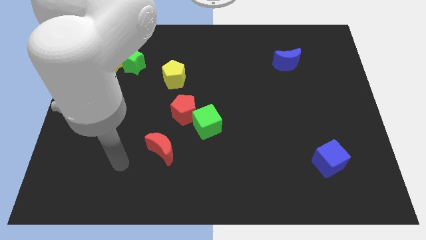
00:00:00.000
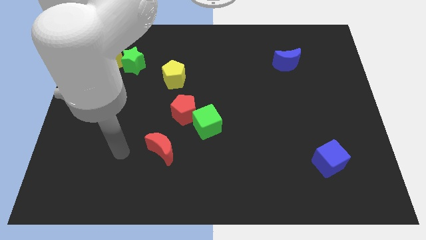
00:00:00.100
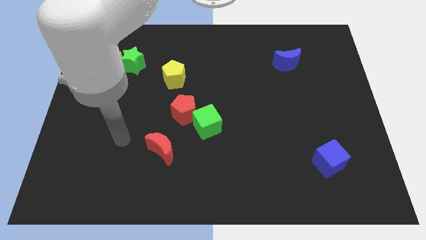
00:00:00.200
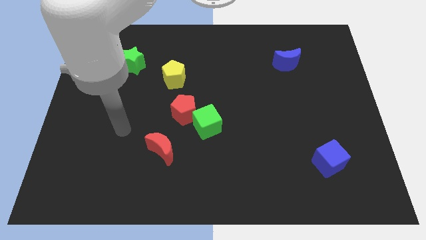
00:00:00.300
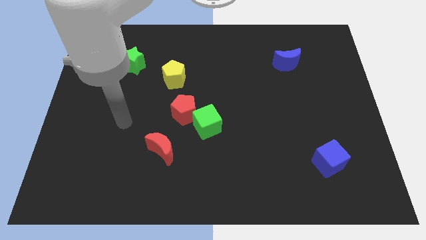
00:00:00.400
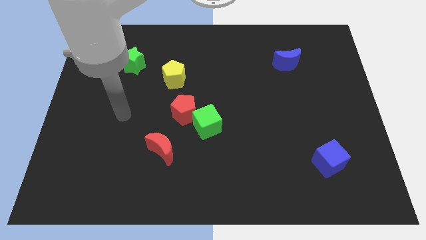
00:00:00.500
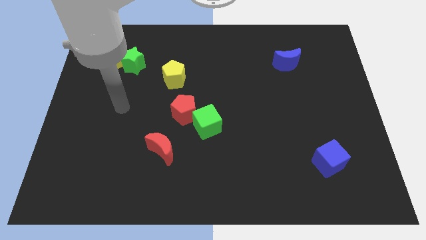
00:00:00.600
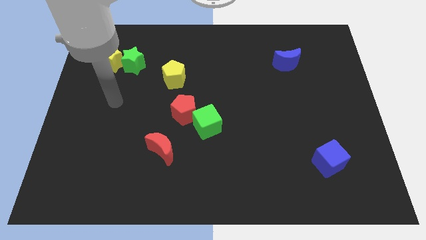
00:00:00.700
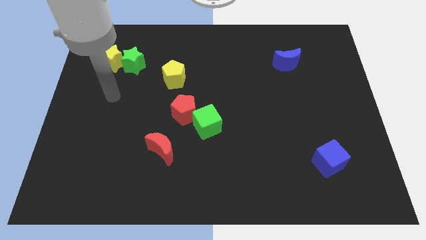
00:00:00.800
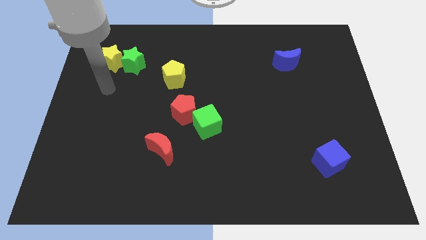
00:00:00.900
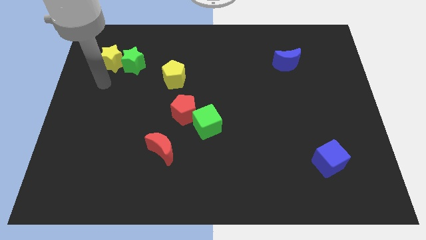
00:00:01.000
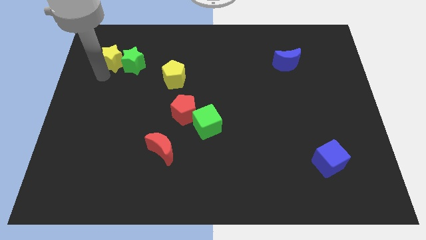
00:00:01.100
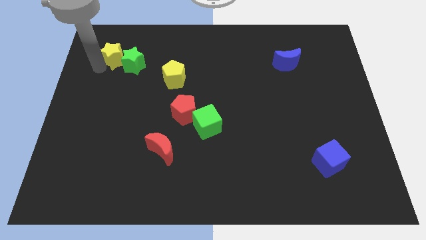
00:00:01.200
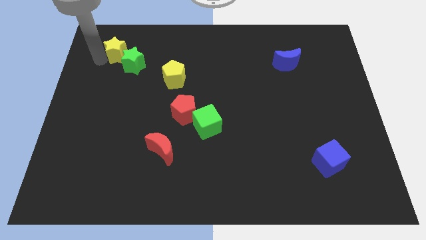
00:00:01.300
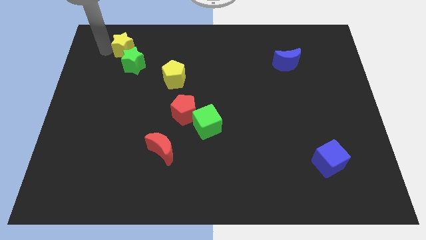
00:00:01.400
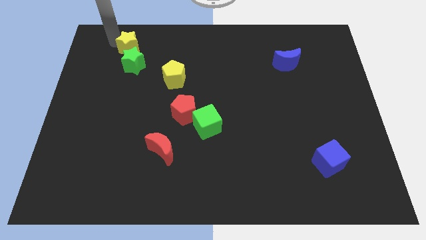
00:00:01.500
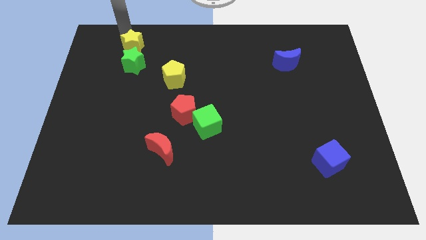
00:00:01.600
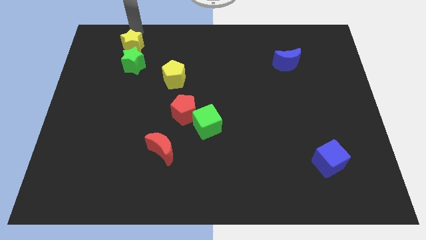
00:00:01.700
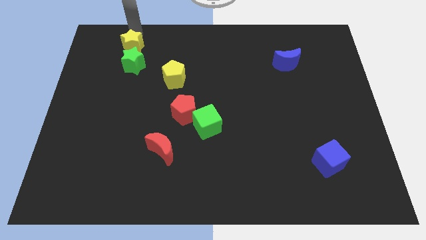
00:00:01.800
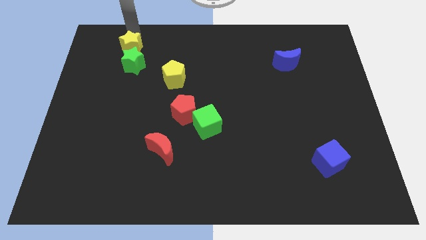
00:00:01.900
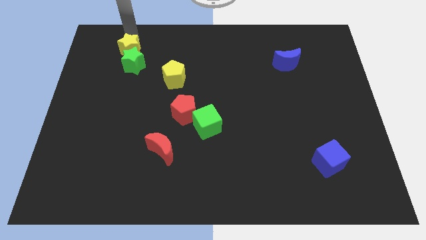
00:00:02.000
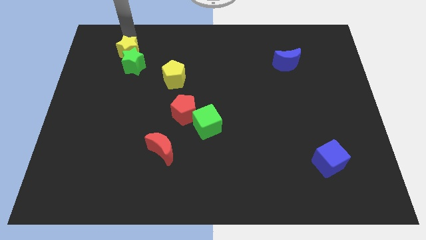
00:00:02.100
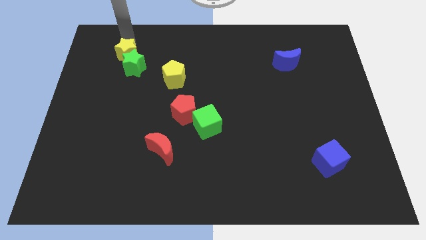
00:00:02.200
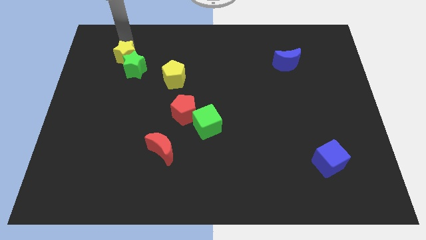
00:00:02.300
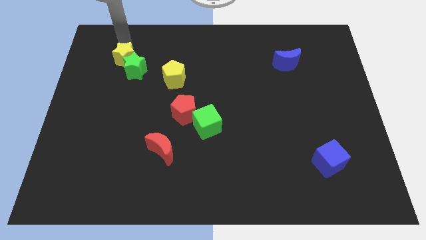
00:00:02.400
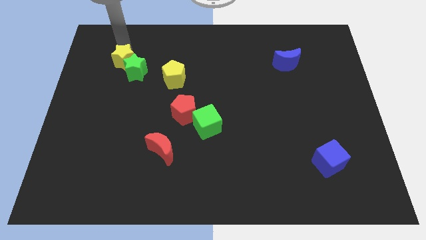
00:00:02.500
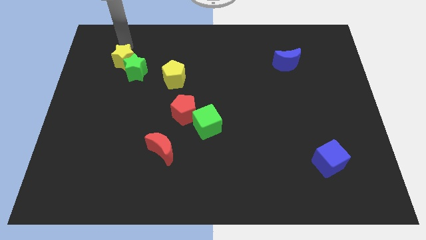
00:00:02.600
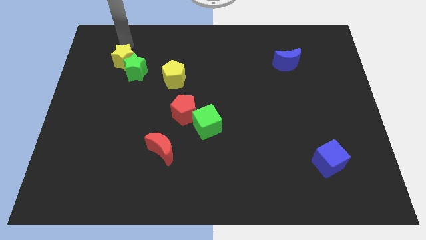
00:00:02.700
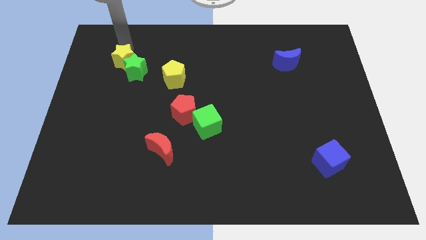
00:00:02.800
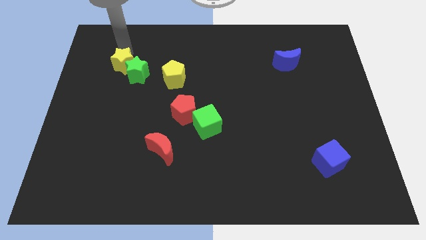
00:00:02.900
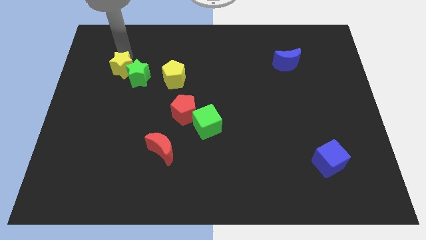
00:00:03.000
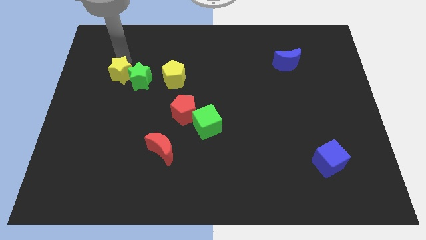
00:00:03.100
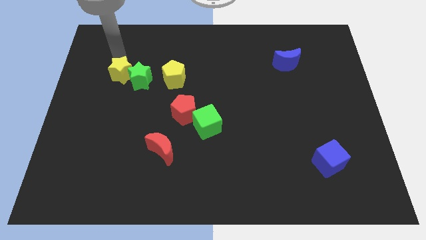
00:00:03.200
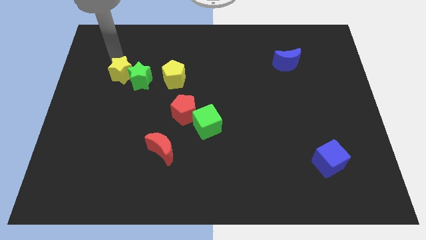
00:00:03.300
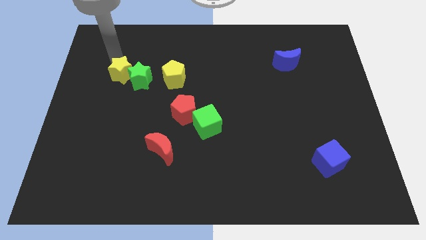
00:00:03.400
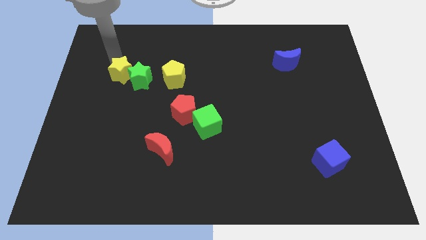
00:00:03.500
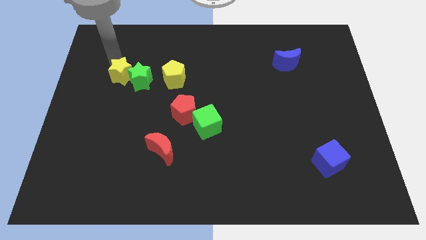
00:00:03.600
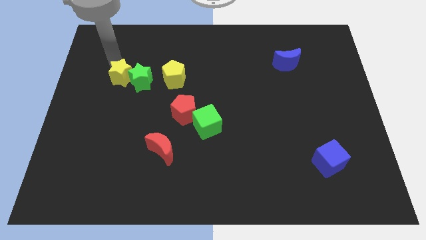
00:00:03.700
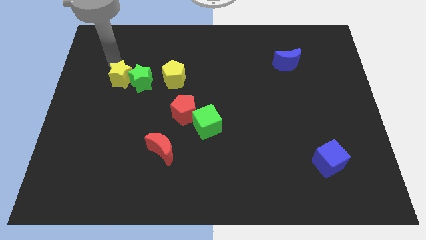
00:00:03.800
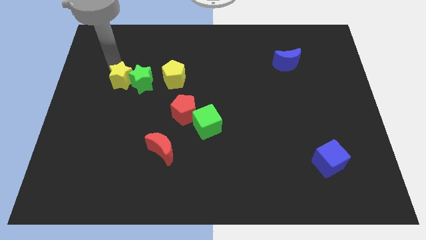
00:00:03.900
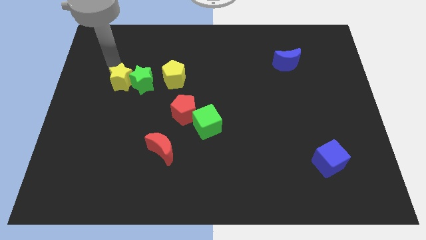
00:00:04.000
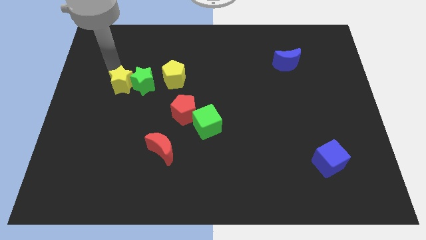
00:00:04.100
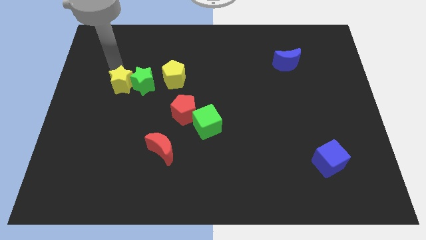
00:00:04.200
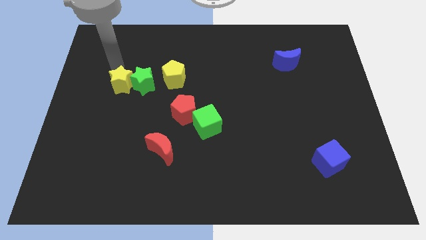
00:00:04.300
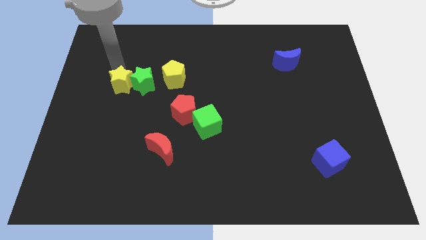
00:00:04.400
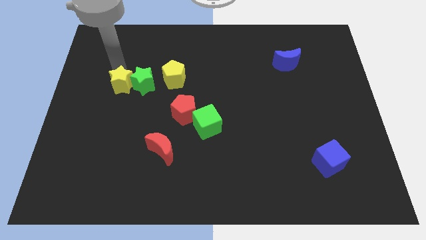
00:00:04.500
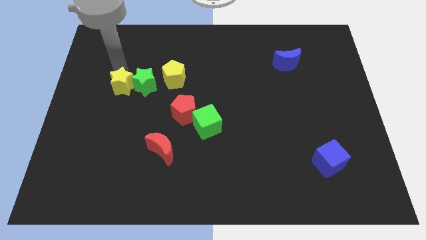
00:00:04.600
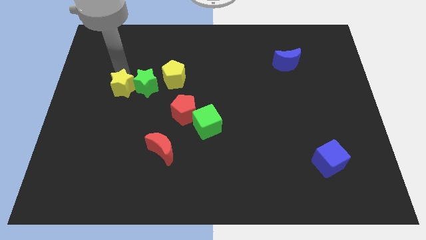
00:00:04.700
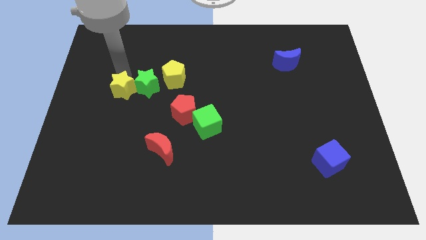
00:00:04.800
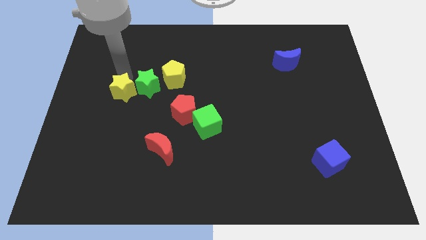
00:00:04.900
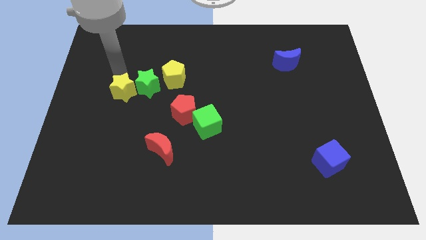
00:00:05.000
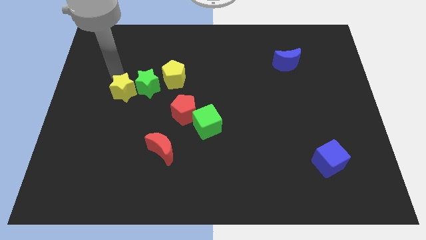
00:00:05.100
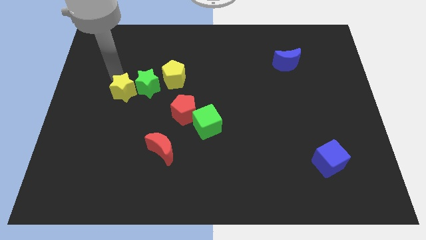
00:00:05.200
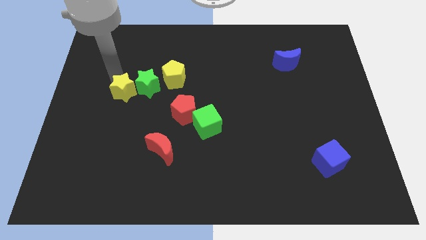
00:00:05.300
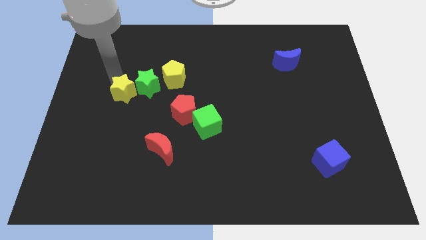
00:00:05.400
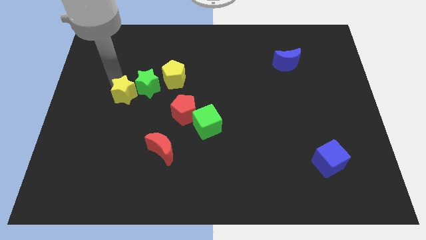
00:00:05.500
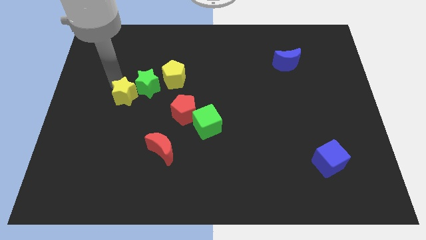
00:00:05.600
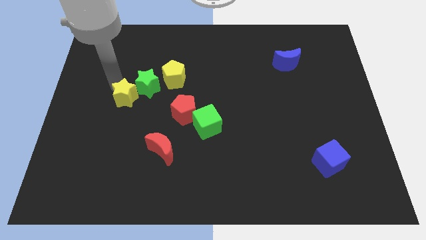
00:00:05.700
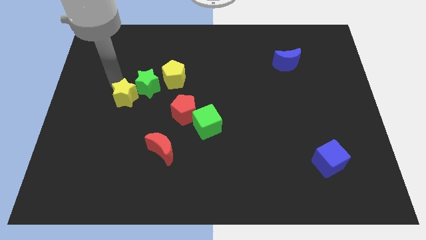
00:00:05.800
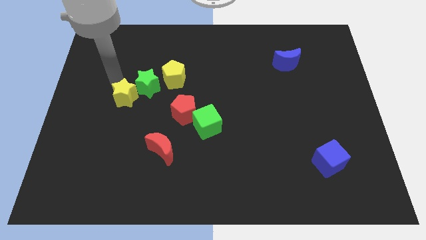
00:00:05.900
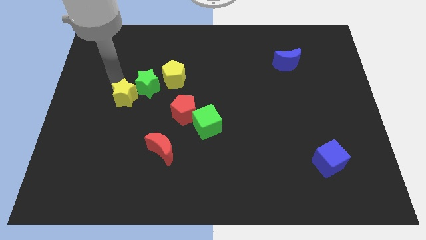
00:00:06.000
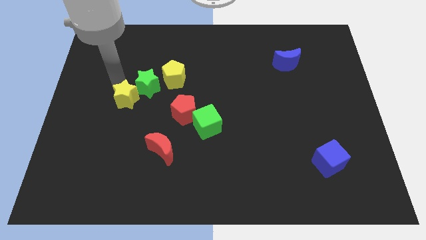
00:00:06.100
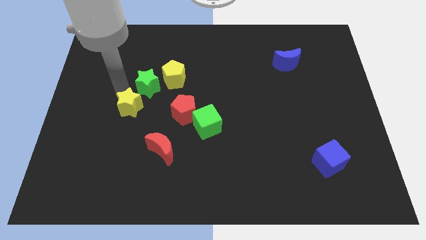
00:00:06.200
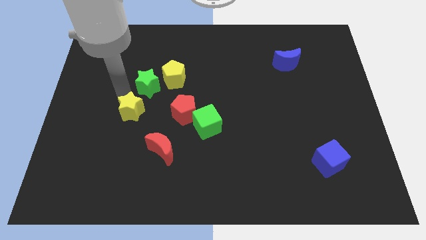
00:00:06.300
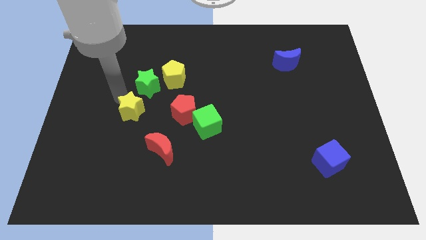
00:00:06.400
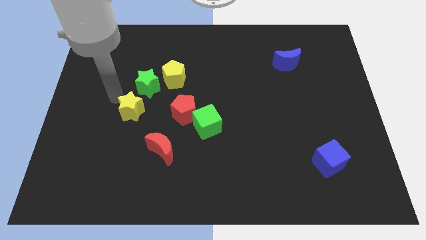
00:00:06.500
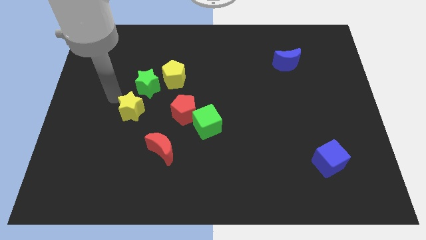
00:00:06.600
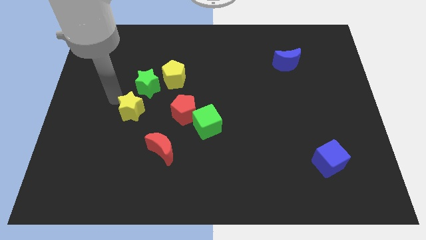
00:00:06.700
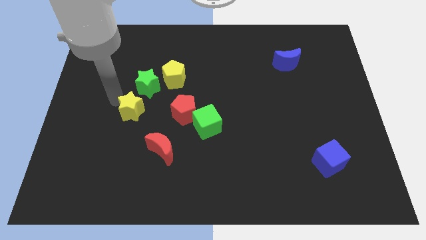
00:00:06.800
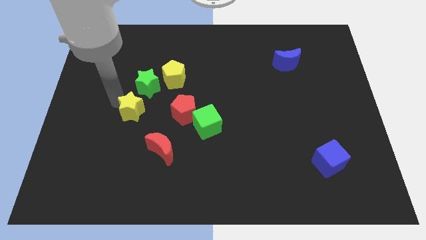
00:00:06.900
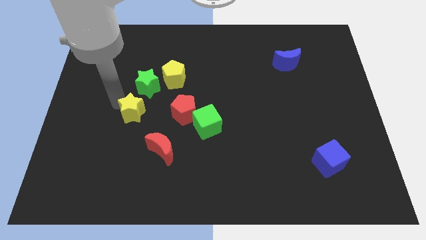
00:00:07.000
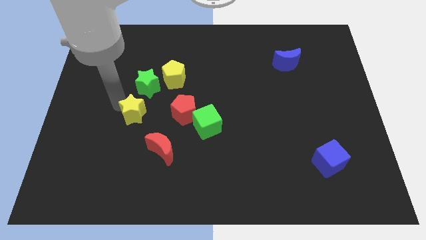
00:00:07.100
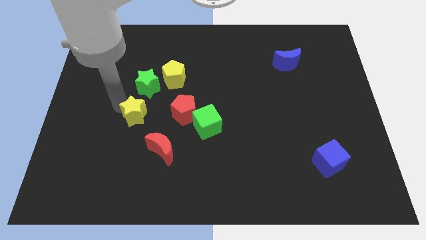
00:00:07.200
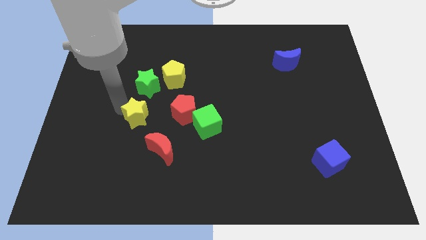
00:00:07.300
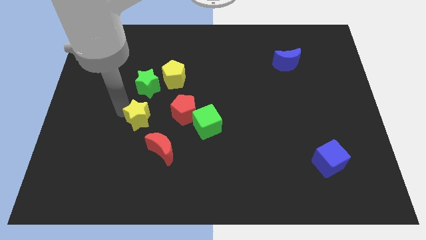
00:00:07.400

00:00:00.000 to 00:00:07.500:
move the yellow star left of the green cube
